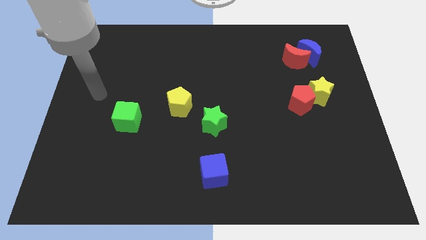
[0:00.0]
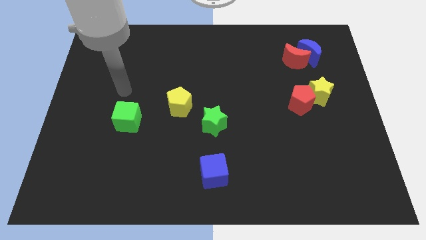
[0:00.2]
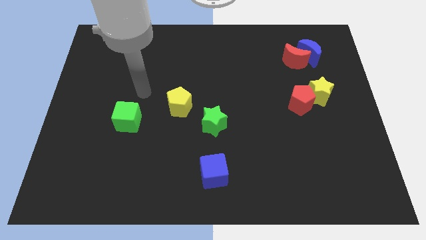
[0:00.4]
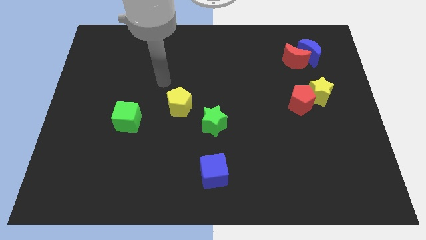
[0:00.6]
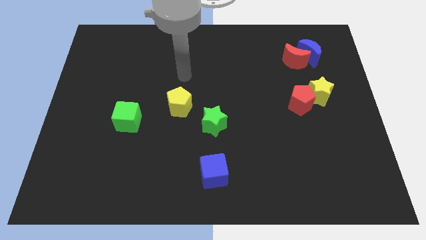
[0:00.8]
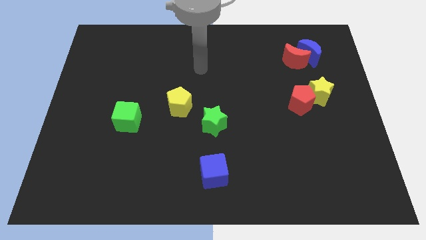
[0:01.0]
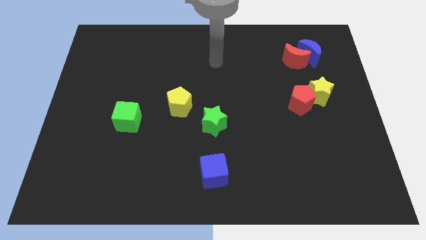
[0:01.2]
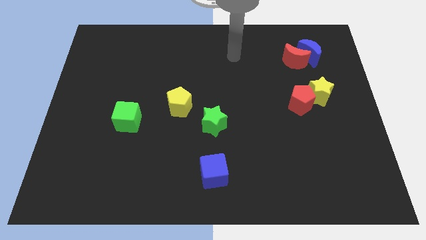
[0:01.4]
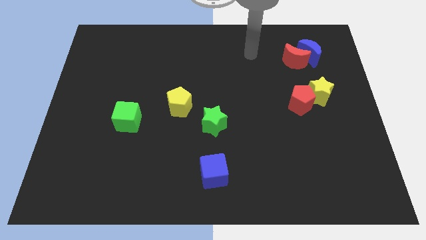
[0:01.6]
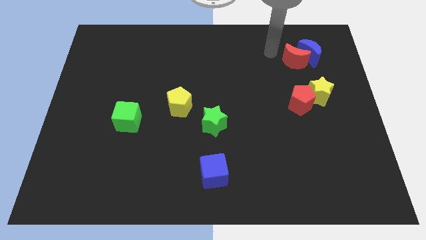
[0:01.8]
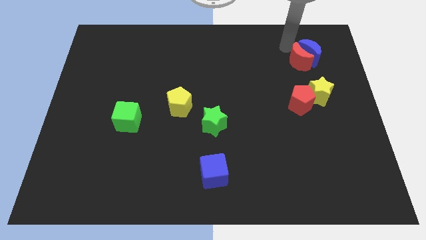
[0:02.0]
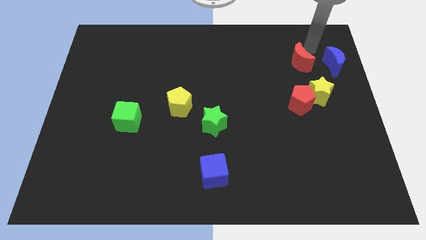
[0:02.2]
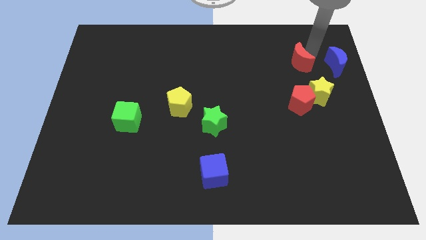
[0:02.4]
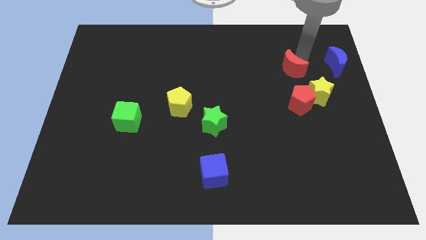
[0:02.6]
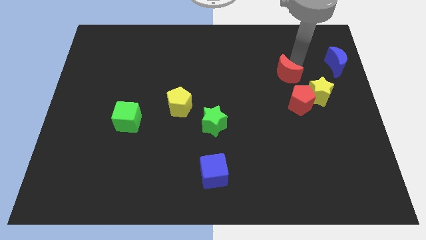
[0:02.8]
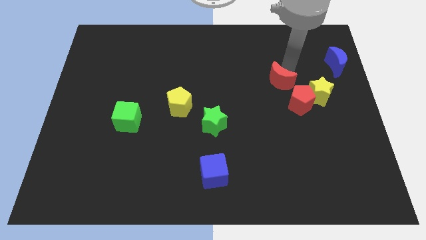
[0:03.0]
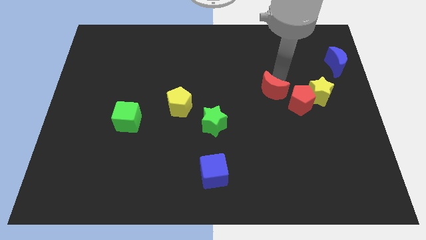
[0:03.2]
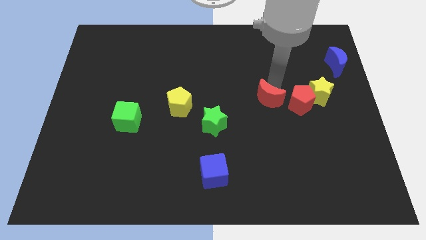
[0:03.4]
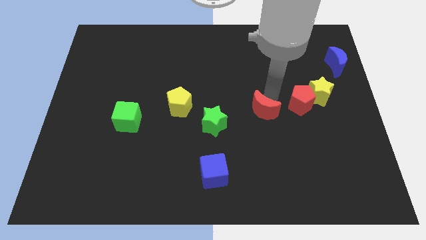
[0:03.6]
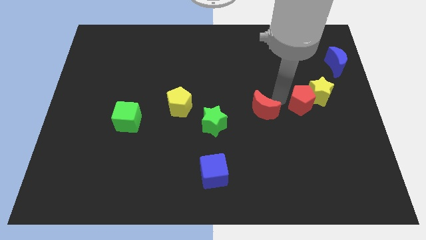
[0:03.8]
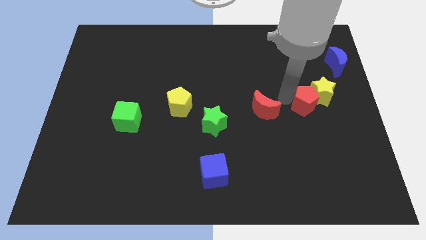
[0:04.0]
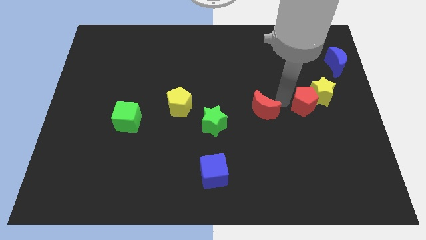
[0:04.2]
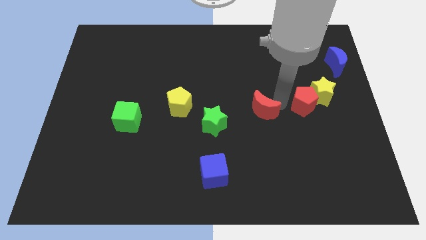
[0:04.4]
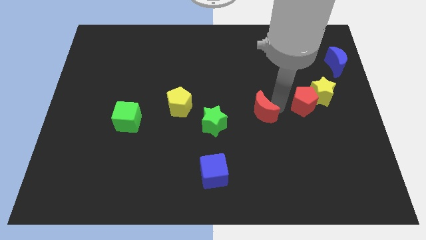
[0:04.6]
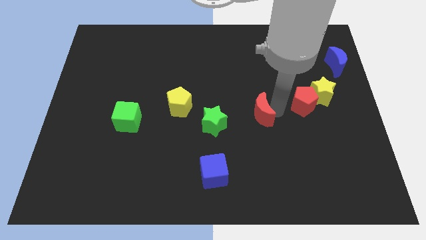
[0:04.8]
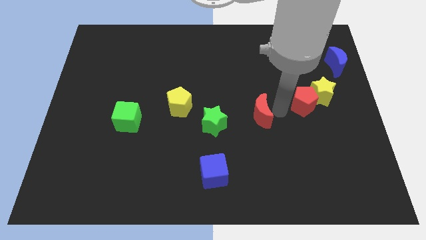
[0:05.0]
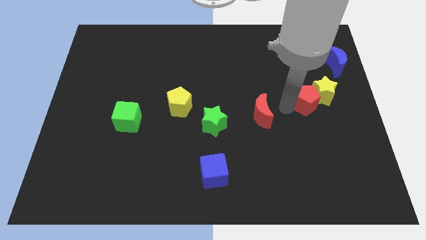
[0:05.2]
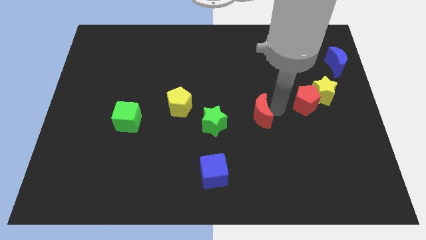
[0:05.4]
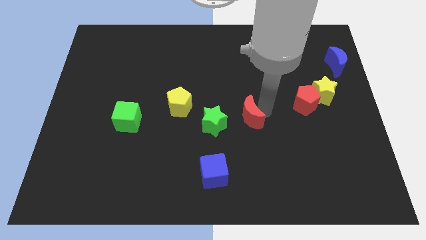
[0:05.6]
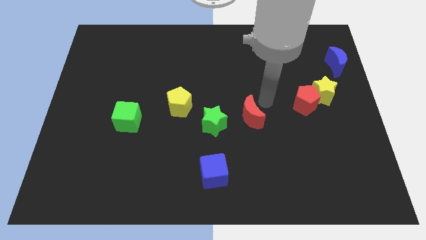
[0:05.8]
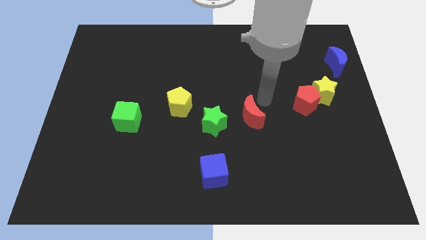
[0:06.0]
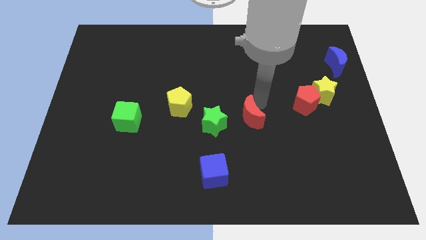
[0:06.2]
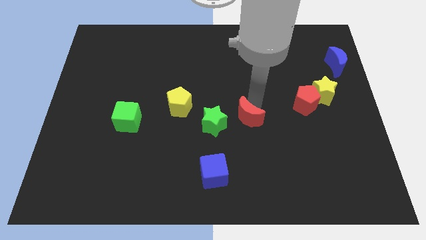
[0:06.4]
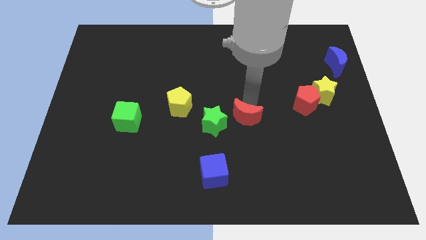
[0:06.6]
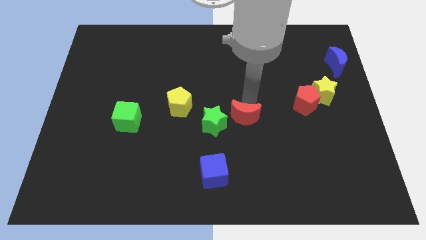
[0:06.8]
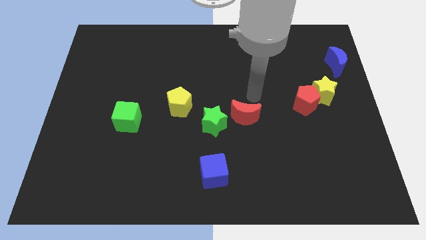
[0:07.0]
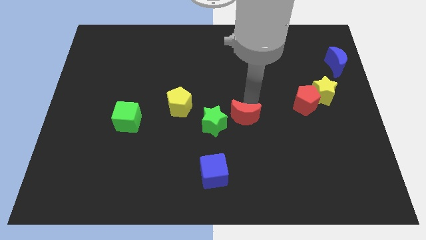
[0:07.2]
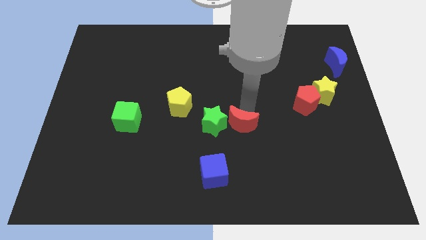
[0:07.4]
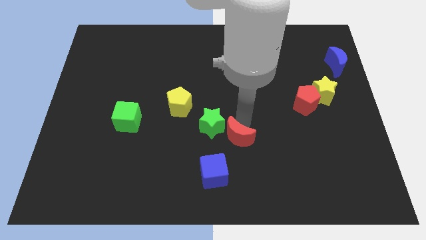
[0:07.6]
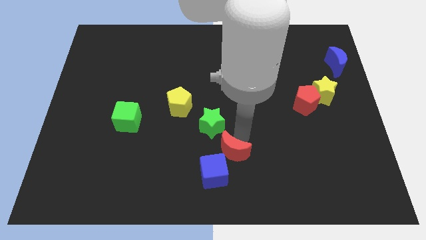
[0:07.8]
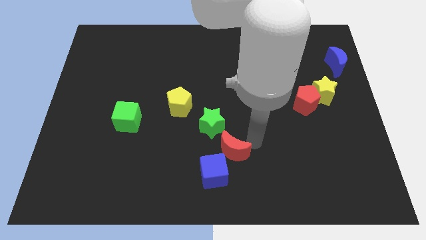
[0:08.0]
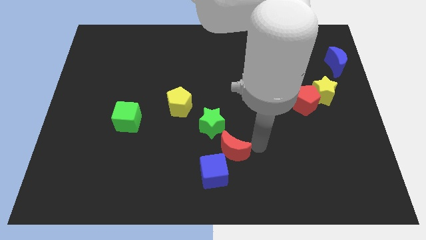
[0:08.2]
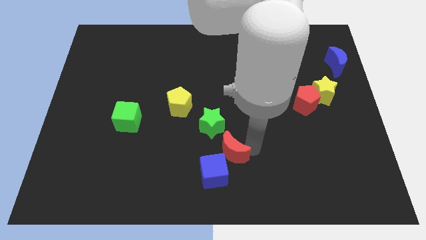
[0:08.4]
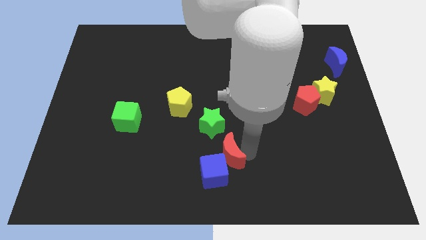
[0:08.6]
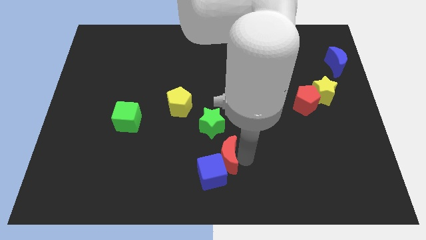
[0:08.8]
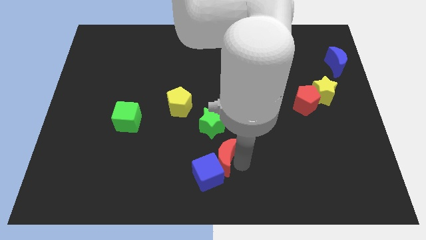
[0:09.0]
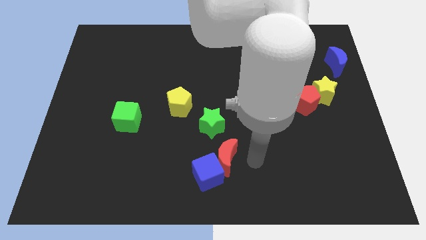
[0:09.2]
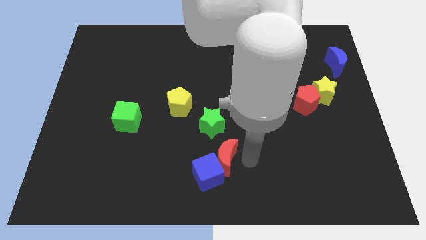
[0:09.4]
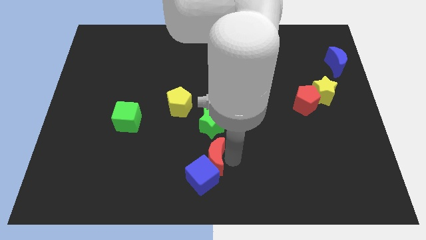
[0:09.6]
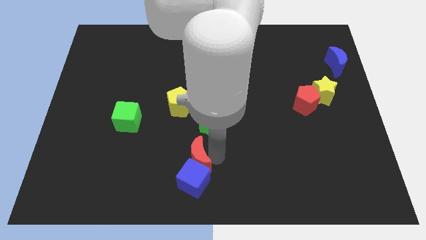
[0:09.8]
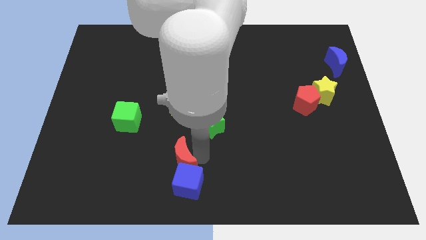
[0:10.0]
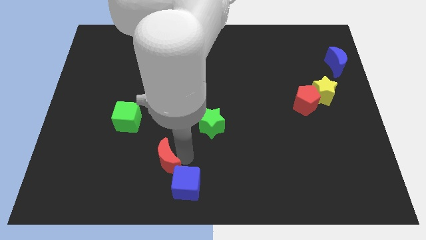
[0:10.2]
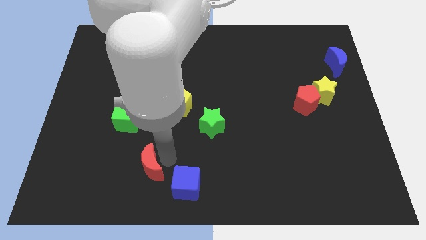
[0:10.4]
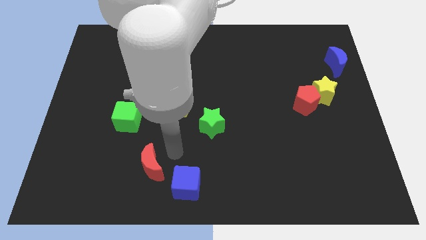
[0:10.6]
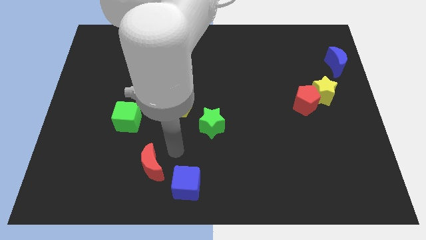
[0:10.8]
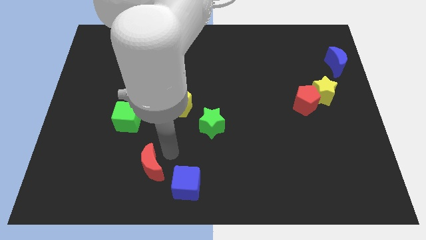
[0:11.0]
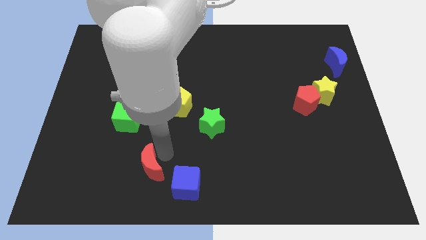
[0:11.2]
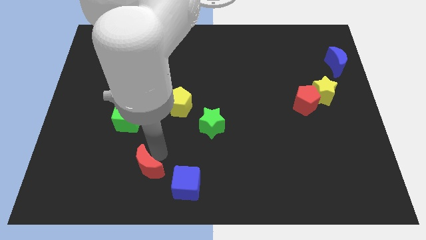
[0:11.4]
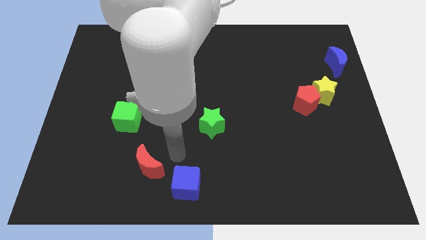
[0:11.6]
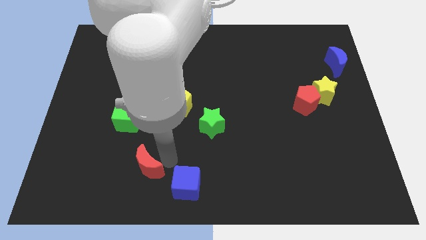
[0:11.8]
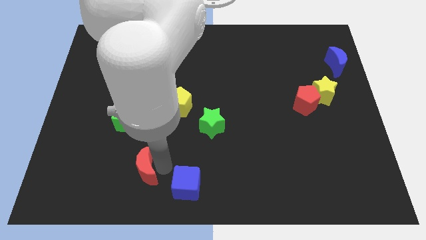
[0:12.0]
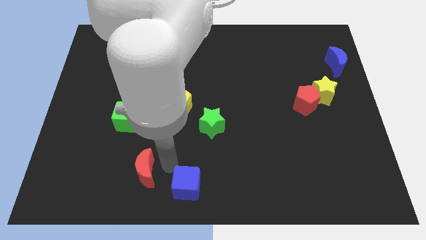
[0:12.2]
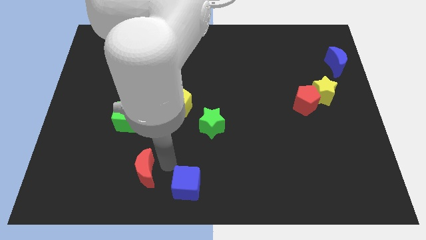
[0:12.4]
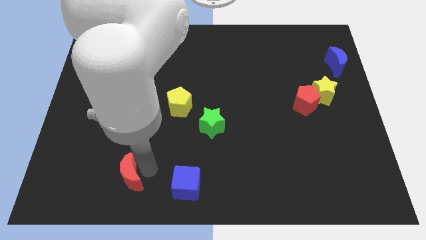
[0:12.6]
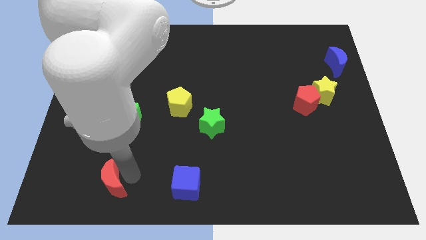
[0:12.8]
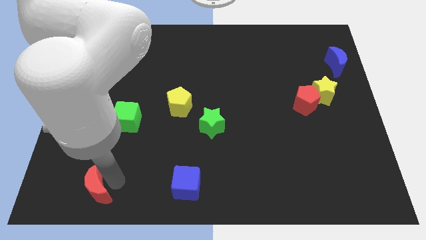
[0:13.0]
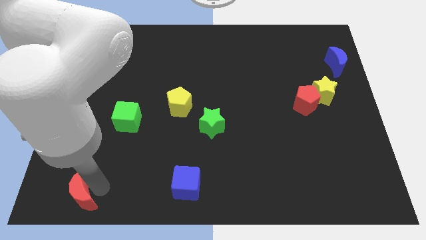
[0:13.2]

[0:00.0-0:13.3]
slide the red moon to the bottom left of the board
